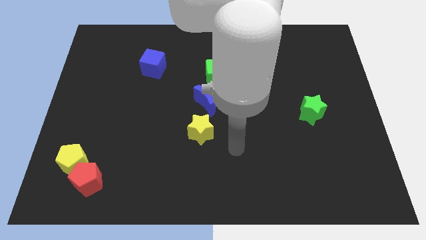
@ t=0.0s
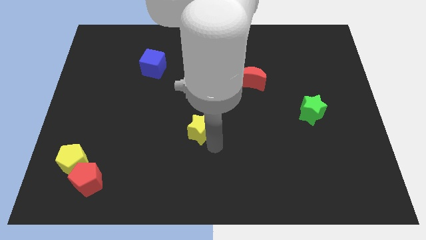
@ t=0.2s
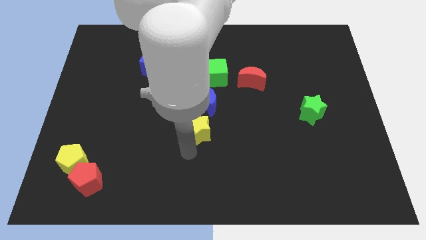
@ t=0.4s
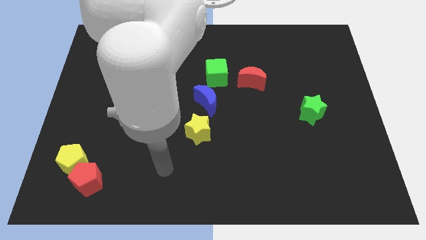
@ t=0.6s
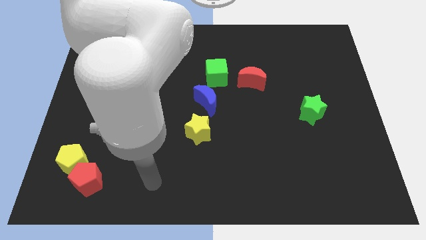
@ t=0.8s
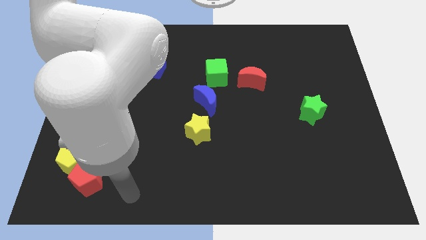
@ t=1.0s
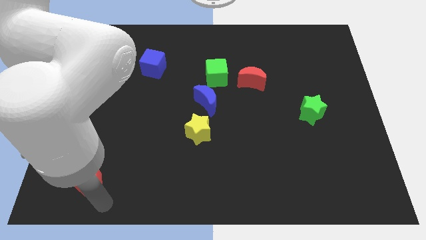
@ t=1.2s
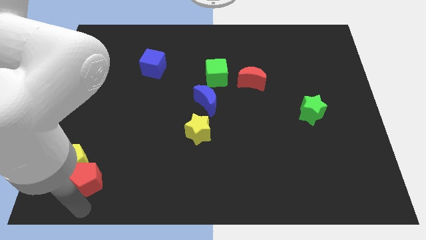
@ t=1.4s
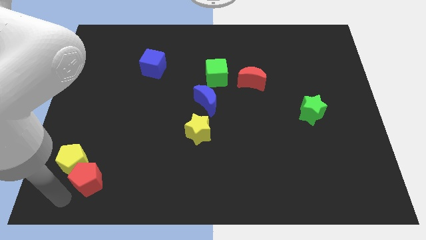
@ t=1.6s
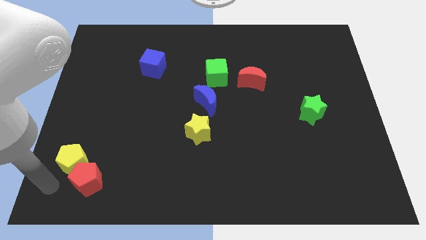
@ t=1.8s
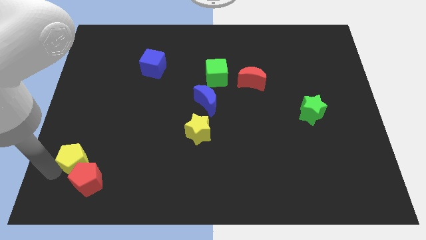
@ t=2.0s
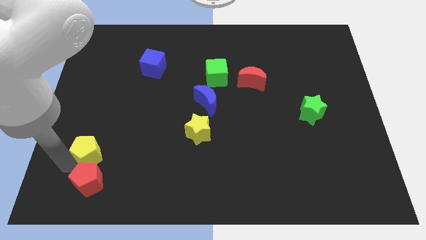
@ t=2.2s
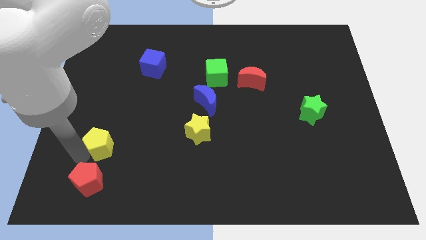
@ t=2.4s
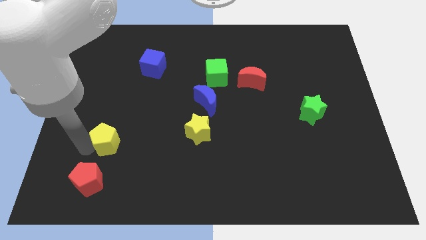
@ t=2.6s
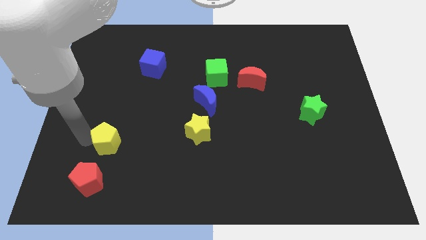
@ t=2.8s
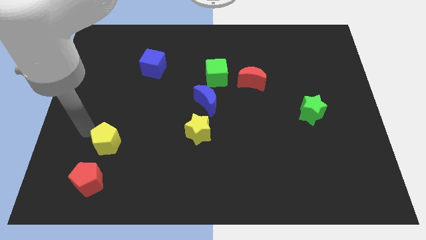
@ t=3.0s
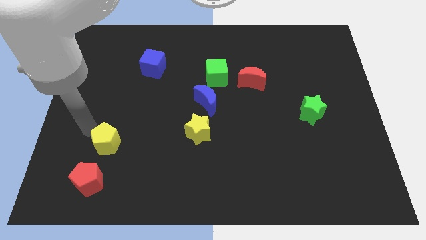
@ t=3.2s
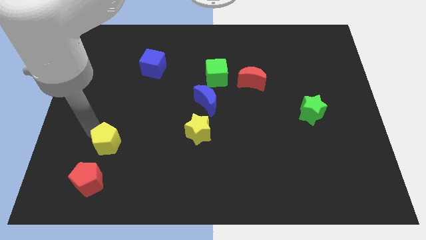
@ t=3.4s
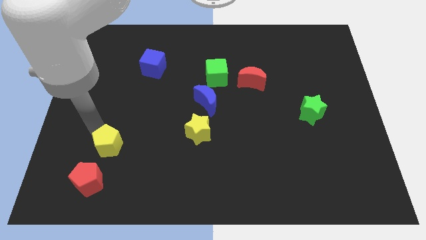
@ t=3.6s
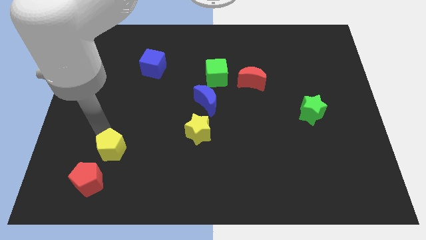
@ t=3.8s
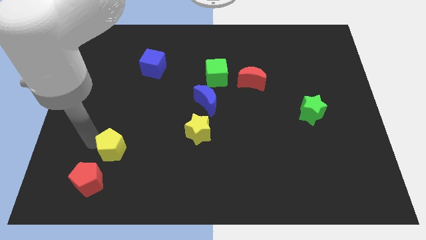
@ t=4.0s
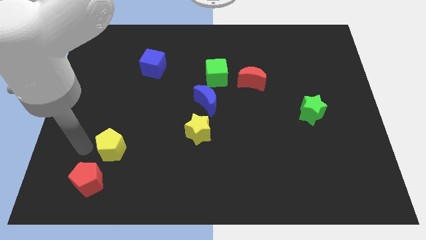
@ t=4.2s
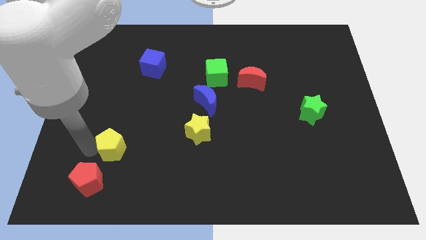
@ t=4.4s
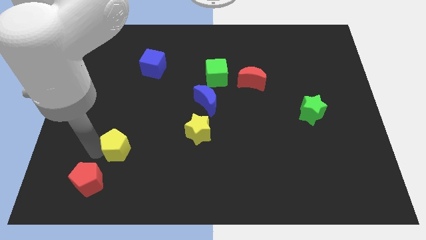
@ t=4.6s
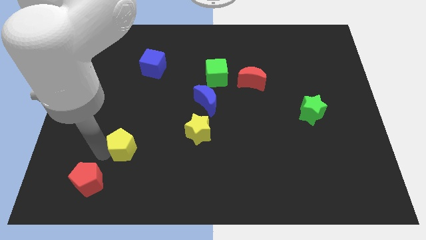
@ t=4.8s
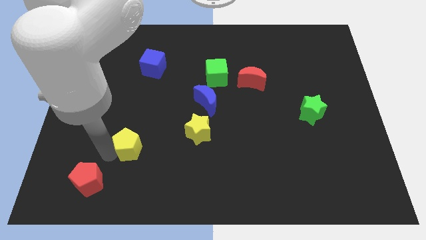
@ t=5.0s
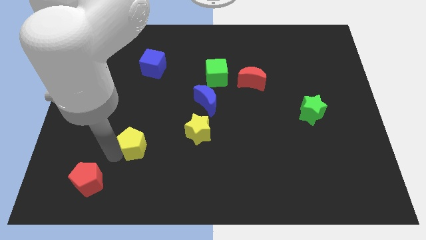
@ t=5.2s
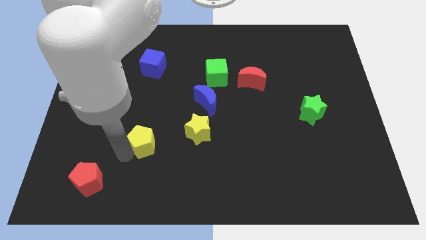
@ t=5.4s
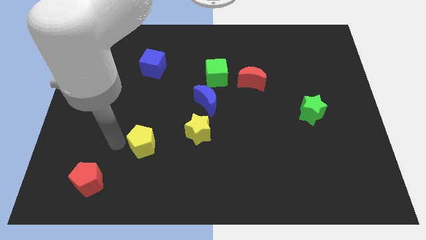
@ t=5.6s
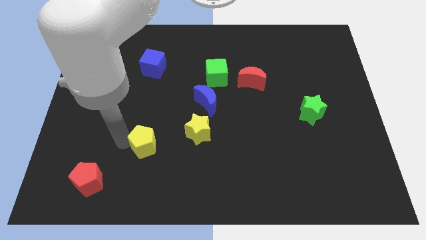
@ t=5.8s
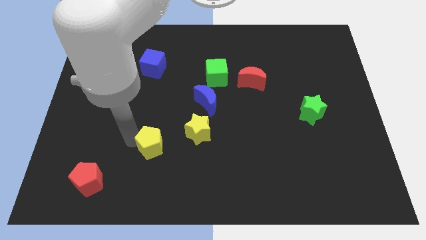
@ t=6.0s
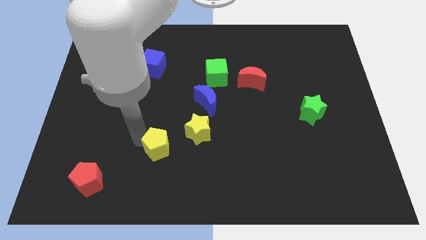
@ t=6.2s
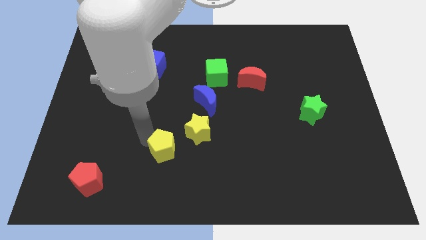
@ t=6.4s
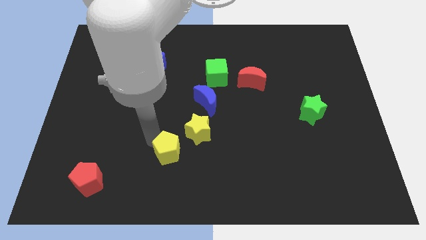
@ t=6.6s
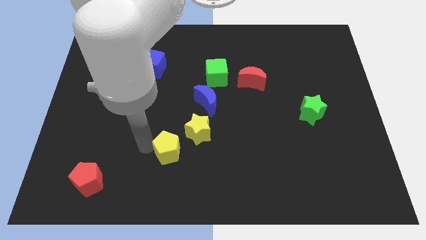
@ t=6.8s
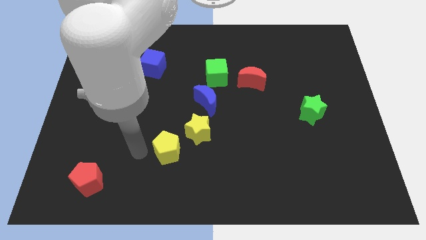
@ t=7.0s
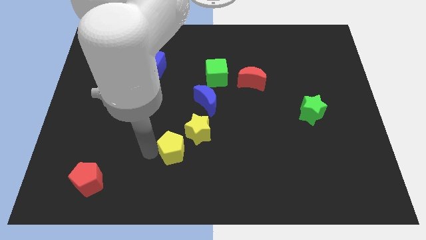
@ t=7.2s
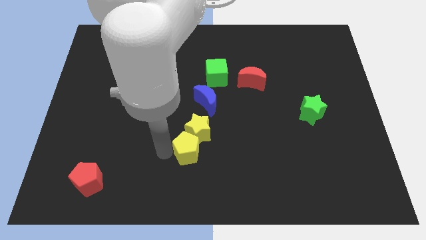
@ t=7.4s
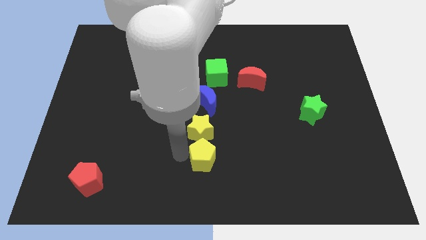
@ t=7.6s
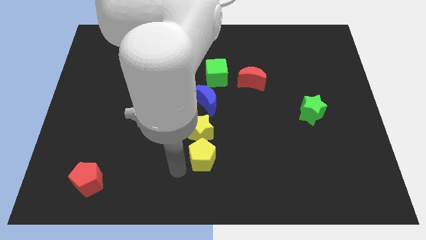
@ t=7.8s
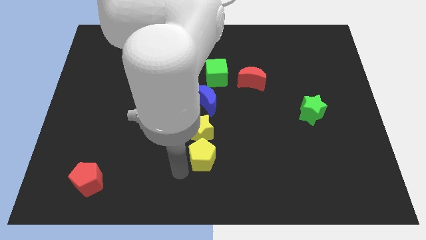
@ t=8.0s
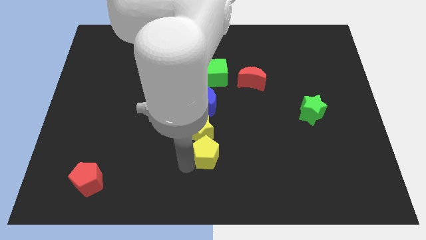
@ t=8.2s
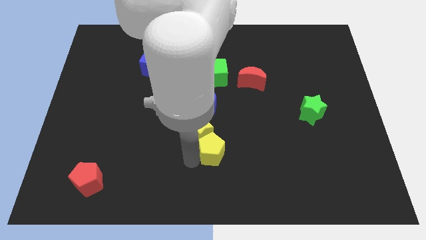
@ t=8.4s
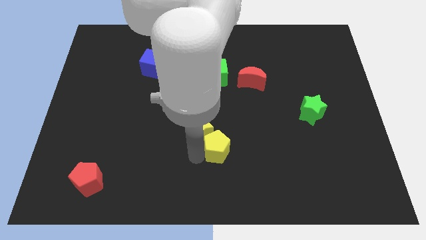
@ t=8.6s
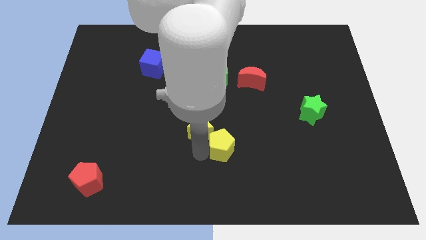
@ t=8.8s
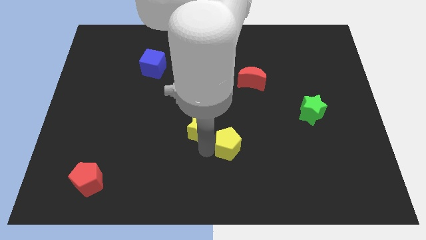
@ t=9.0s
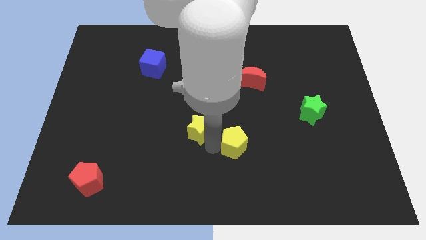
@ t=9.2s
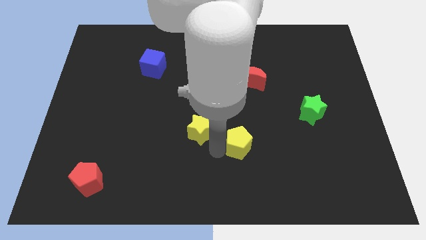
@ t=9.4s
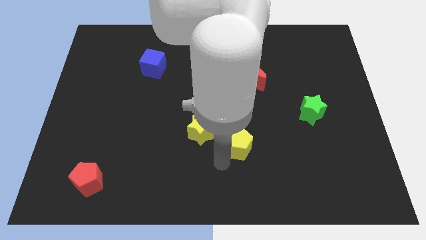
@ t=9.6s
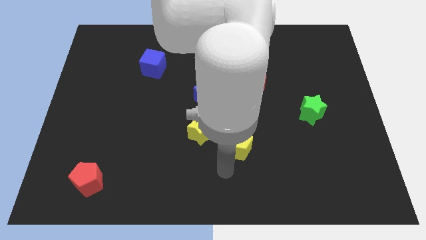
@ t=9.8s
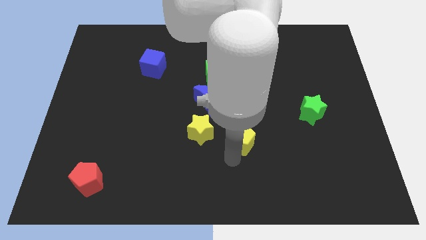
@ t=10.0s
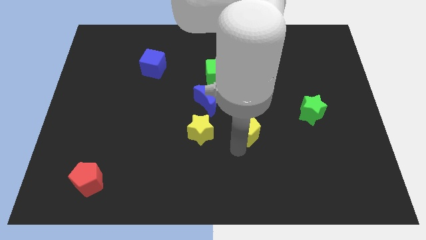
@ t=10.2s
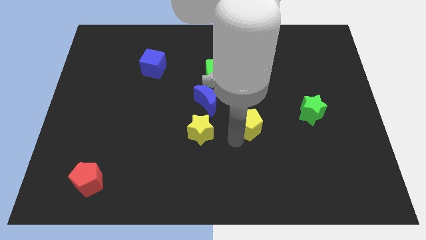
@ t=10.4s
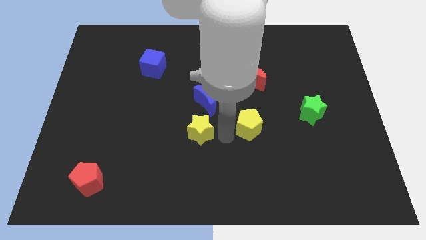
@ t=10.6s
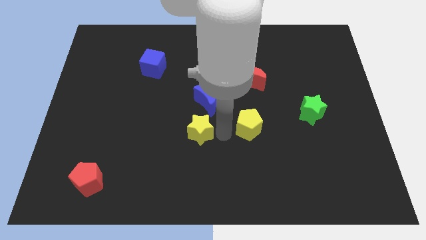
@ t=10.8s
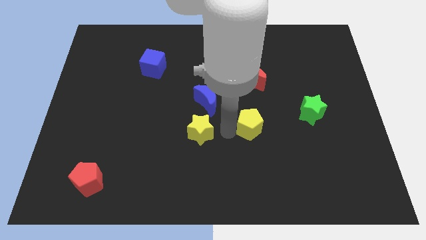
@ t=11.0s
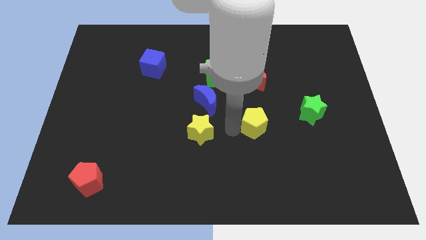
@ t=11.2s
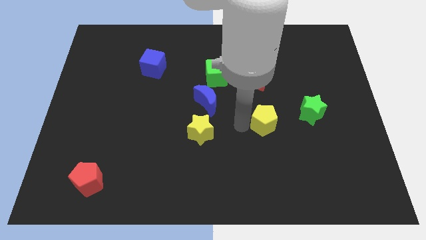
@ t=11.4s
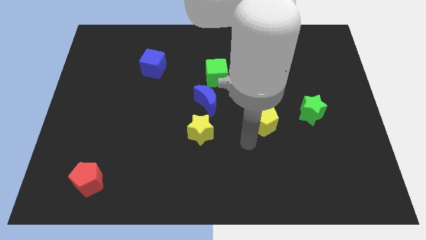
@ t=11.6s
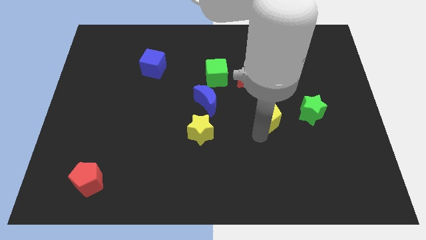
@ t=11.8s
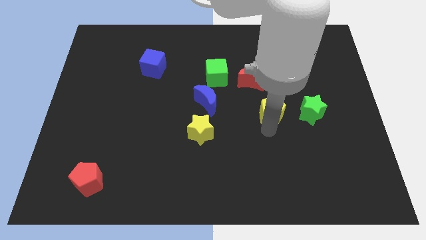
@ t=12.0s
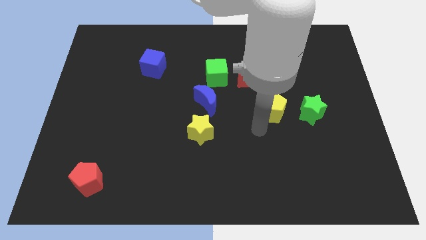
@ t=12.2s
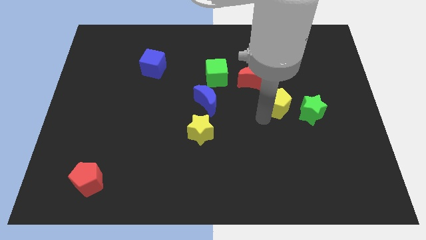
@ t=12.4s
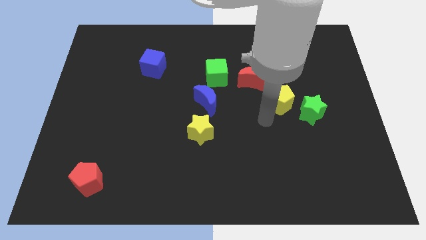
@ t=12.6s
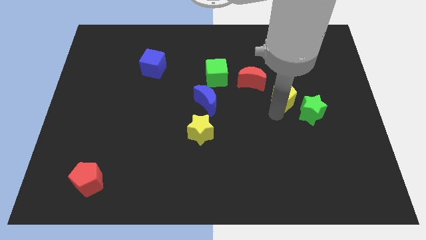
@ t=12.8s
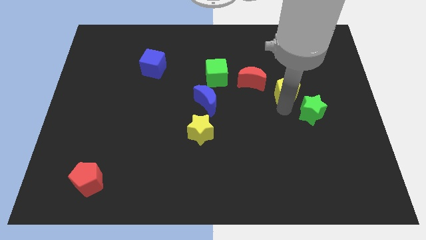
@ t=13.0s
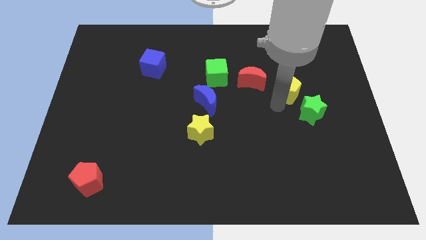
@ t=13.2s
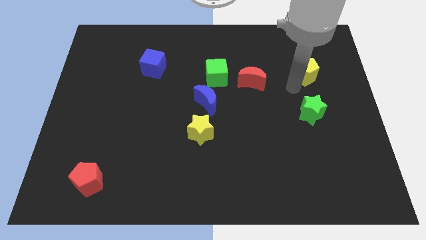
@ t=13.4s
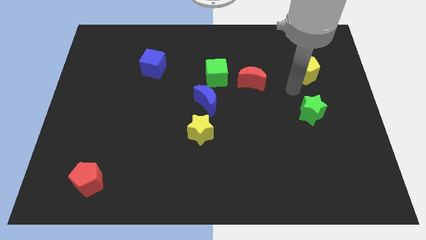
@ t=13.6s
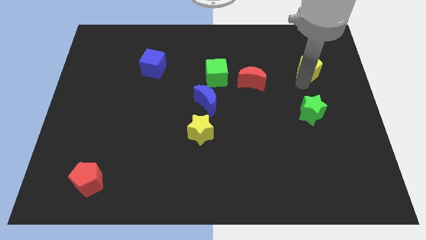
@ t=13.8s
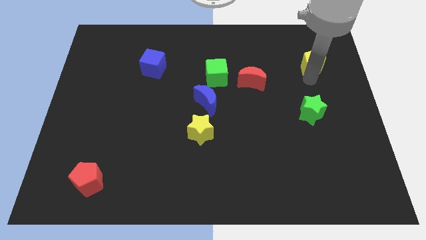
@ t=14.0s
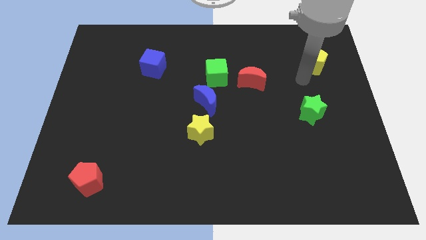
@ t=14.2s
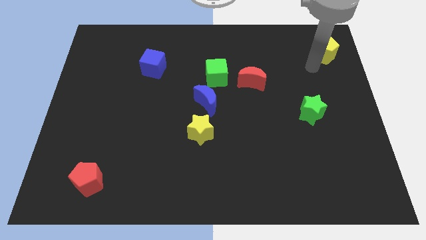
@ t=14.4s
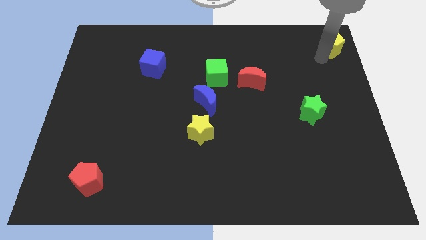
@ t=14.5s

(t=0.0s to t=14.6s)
push the yellow pentagon to the top right
